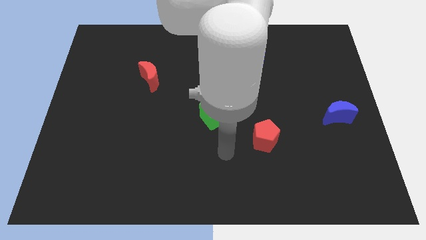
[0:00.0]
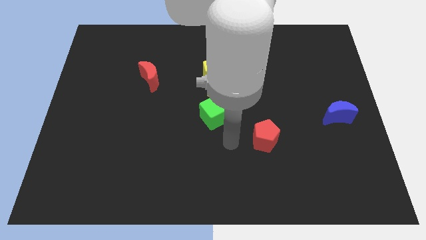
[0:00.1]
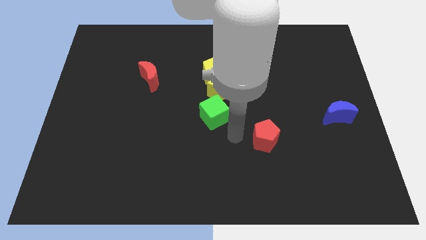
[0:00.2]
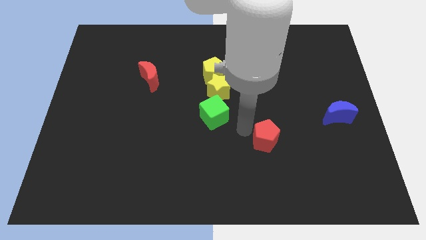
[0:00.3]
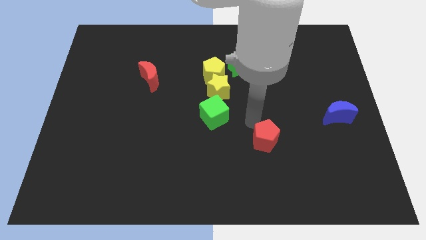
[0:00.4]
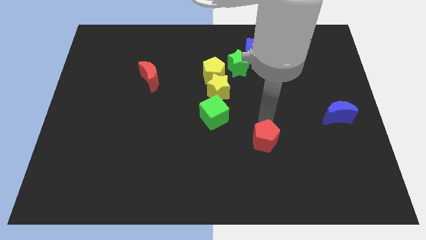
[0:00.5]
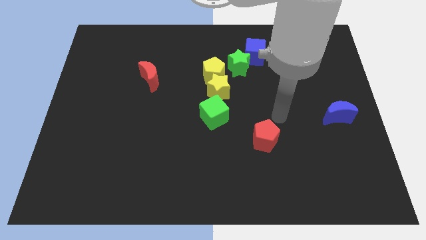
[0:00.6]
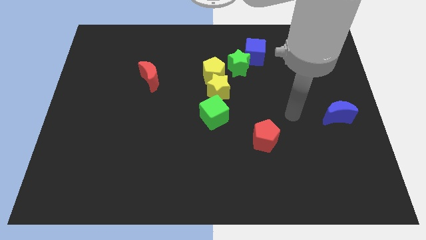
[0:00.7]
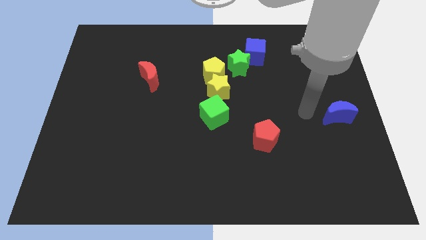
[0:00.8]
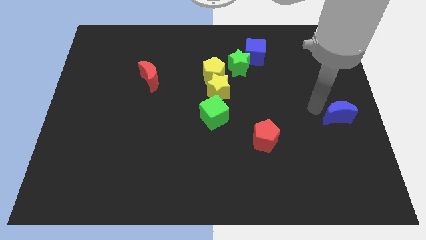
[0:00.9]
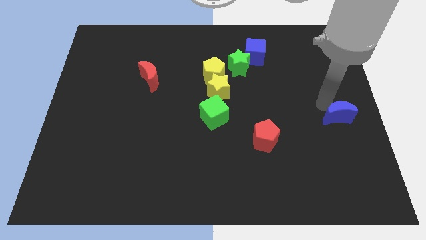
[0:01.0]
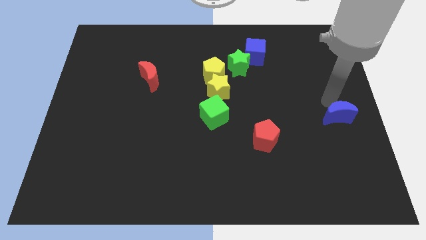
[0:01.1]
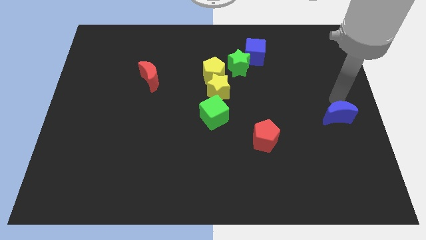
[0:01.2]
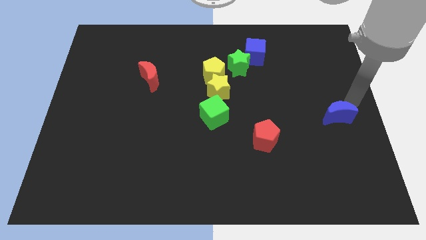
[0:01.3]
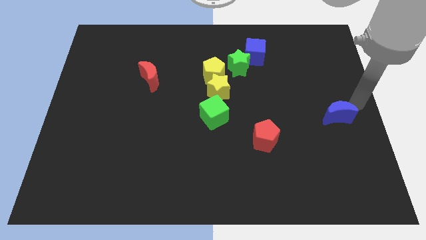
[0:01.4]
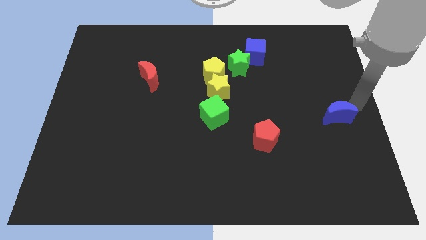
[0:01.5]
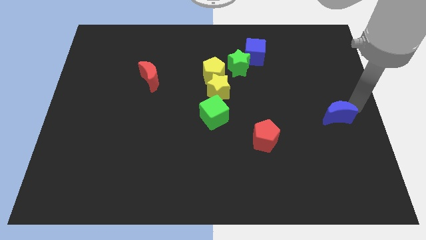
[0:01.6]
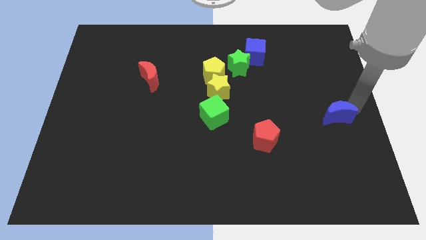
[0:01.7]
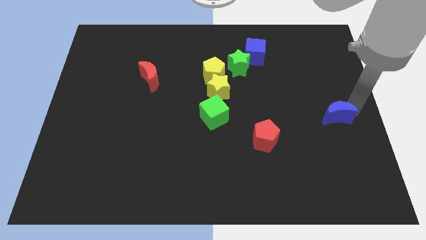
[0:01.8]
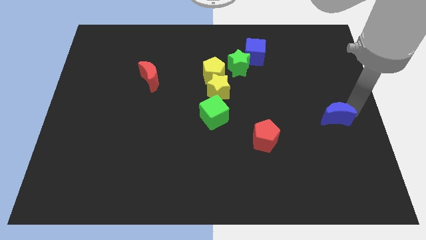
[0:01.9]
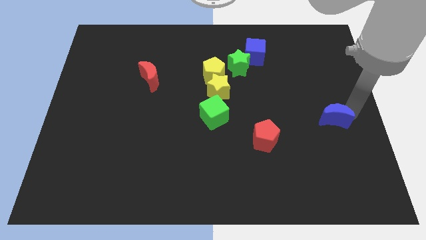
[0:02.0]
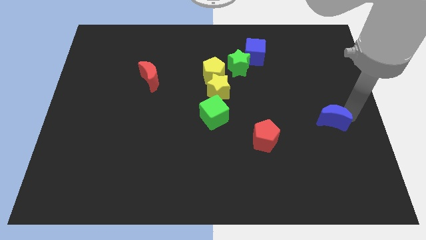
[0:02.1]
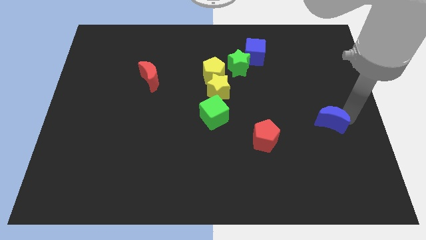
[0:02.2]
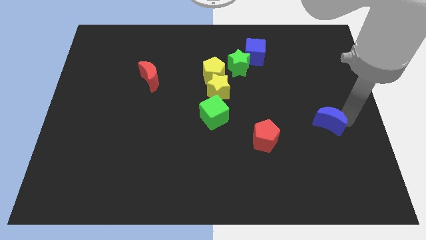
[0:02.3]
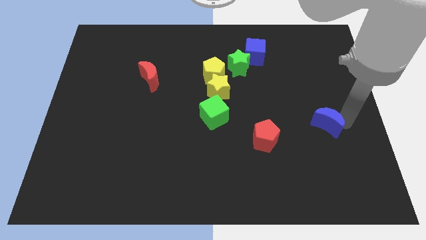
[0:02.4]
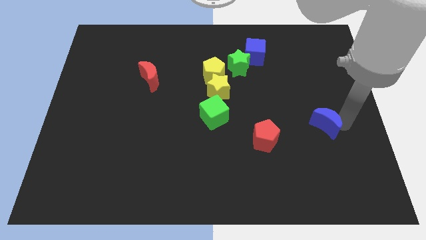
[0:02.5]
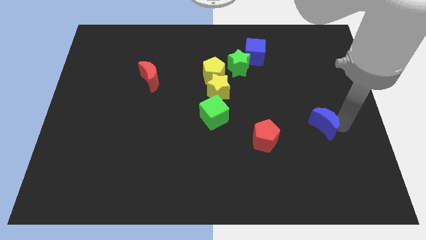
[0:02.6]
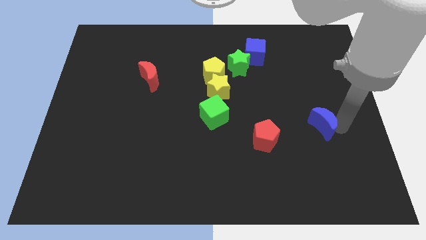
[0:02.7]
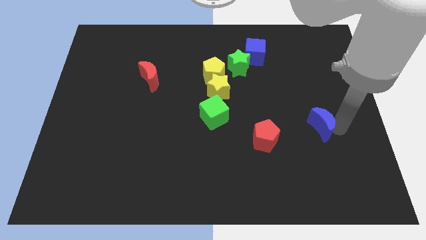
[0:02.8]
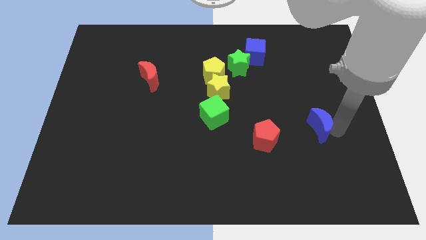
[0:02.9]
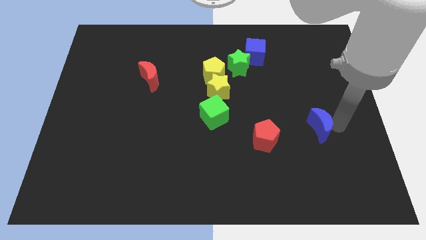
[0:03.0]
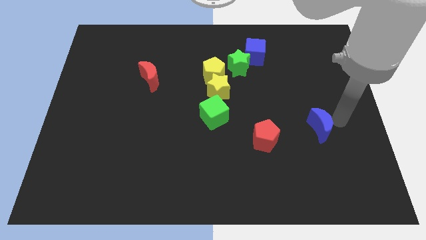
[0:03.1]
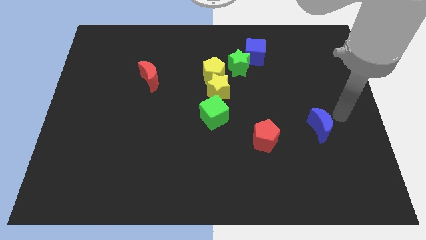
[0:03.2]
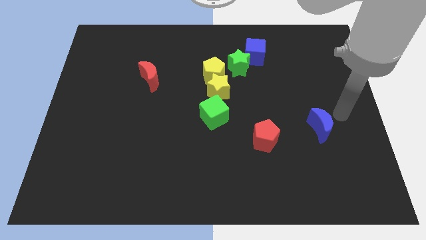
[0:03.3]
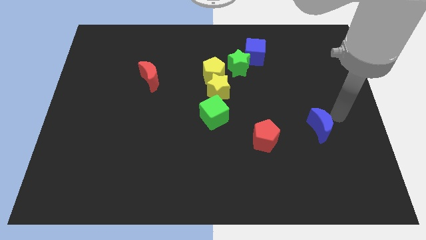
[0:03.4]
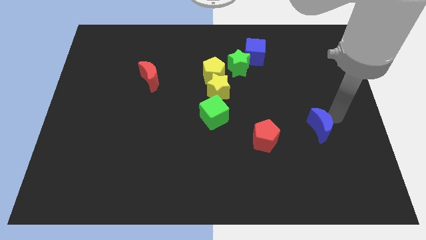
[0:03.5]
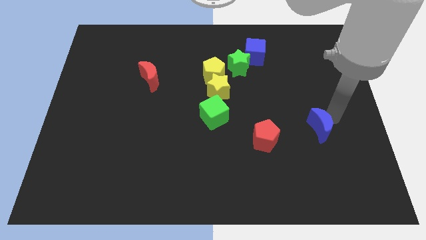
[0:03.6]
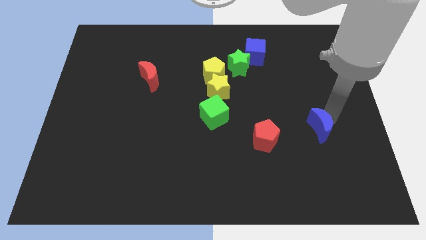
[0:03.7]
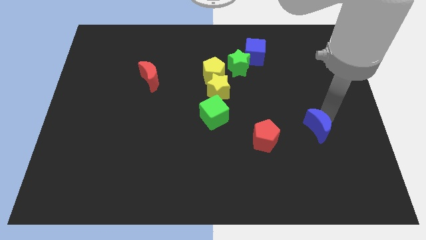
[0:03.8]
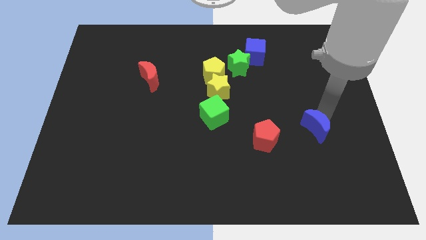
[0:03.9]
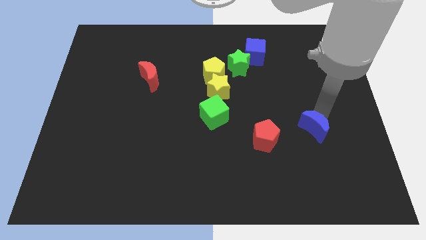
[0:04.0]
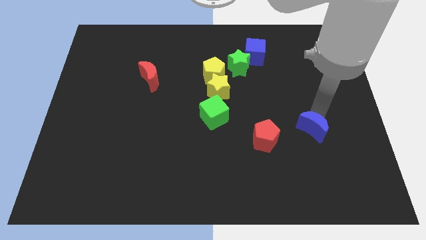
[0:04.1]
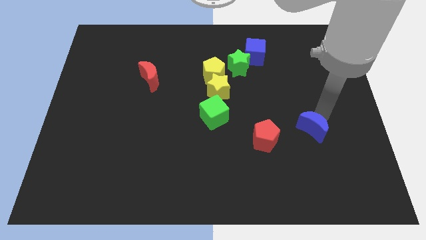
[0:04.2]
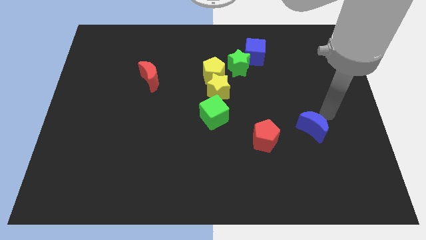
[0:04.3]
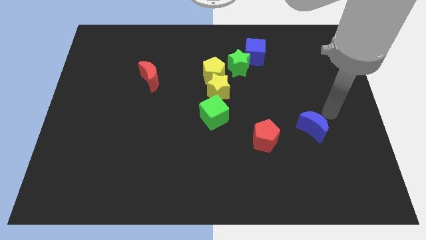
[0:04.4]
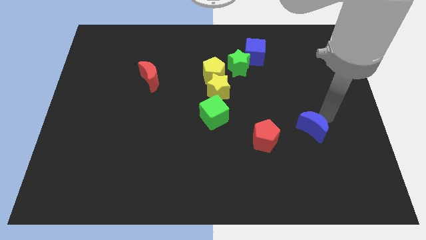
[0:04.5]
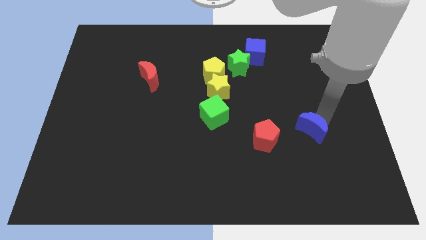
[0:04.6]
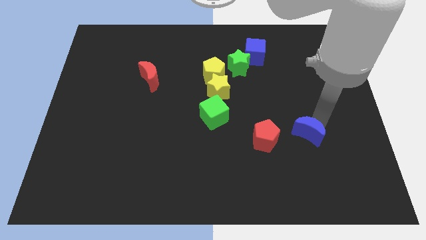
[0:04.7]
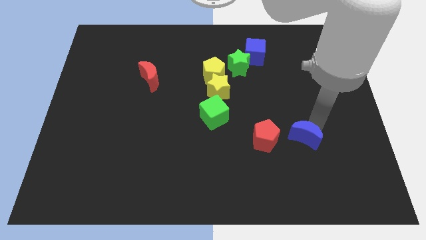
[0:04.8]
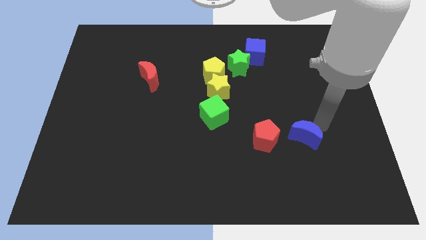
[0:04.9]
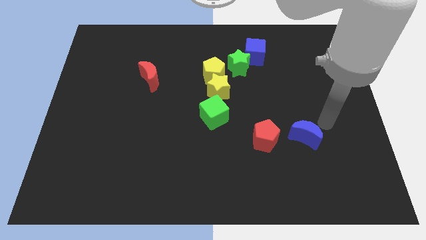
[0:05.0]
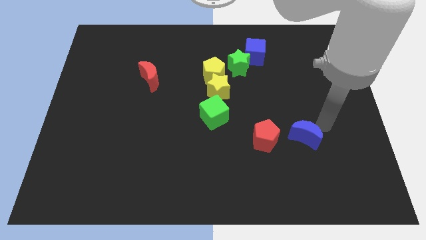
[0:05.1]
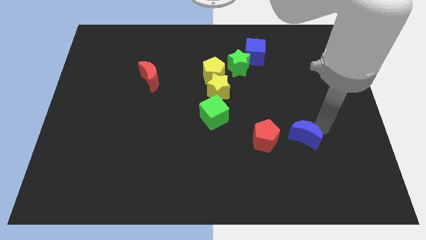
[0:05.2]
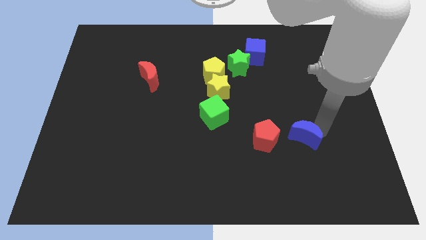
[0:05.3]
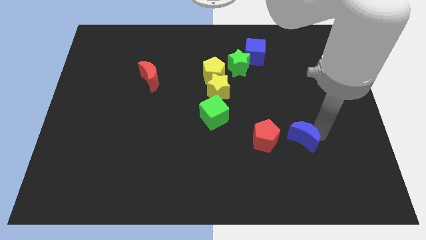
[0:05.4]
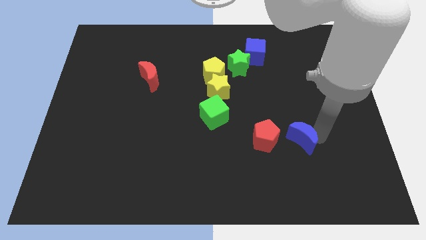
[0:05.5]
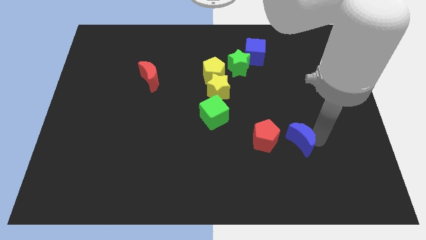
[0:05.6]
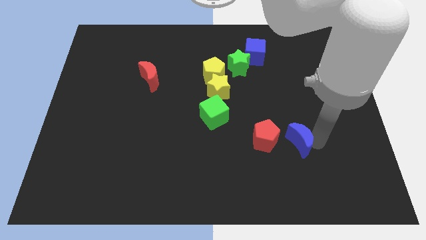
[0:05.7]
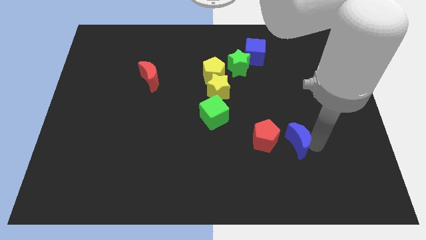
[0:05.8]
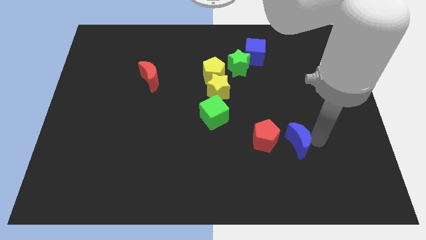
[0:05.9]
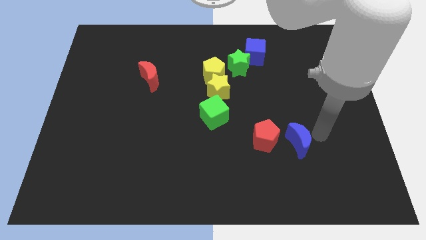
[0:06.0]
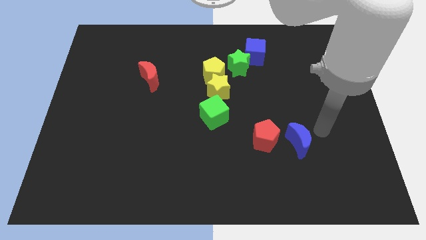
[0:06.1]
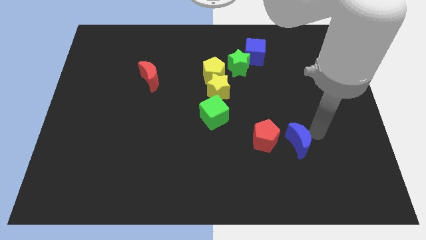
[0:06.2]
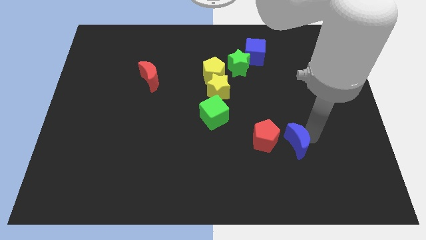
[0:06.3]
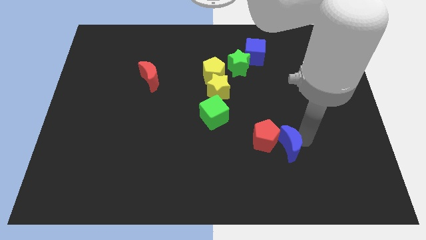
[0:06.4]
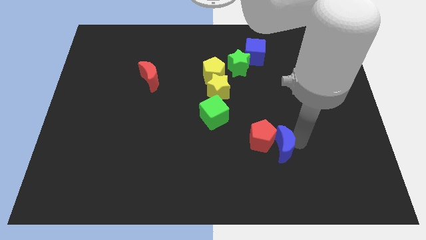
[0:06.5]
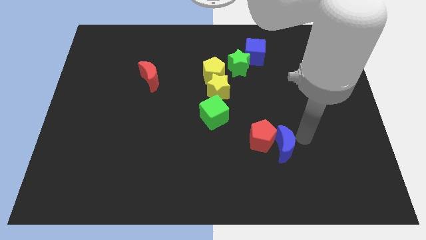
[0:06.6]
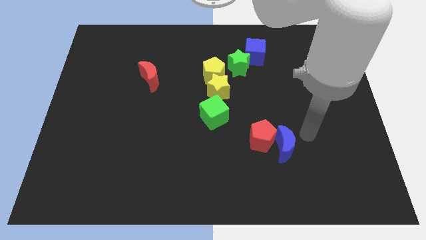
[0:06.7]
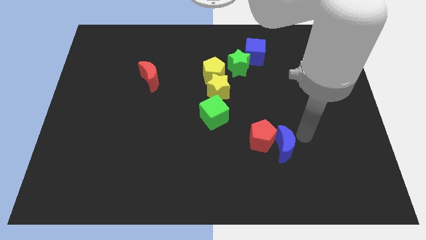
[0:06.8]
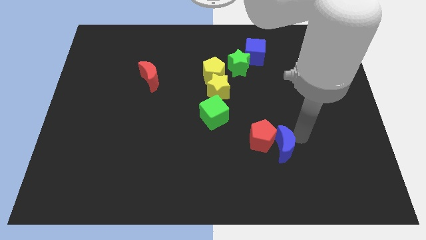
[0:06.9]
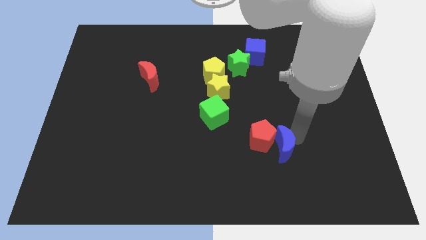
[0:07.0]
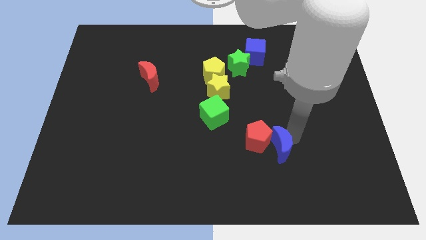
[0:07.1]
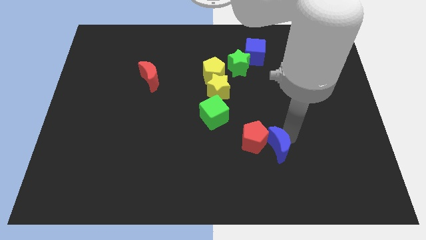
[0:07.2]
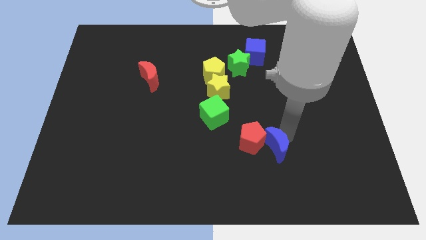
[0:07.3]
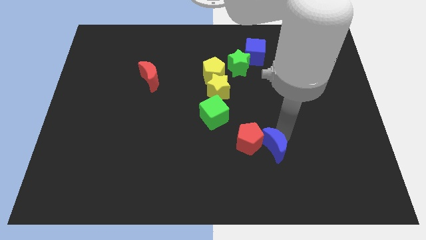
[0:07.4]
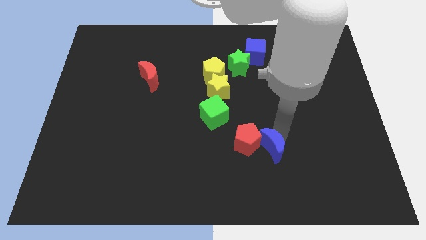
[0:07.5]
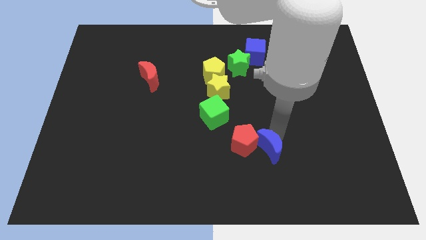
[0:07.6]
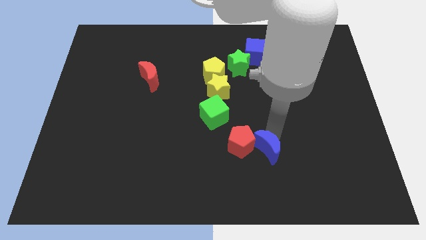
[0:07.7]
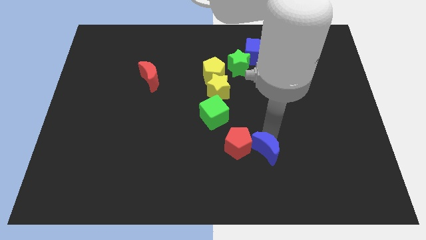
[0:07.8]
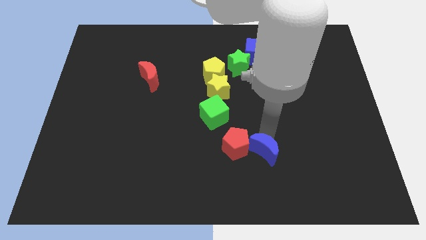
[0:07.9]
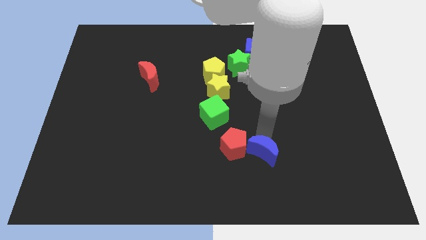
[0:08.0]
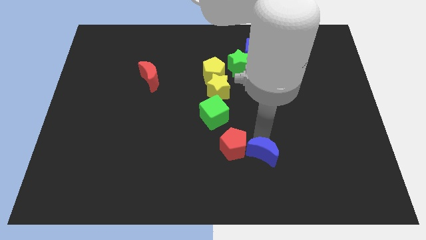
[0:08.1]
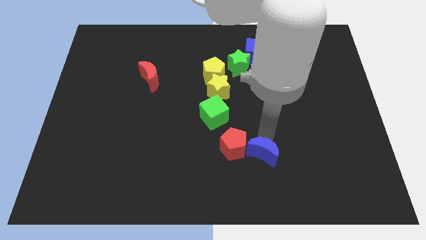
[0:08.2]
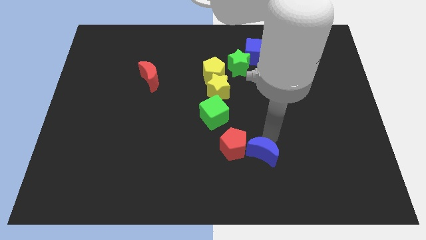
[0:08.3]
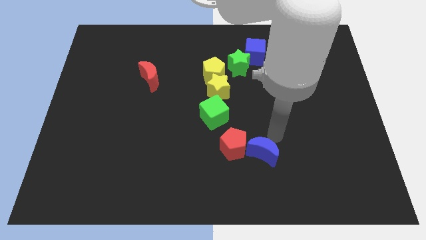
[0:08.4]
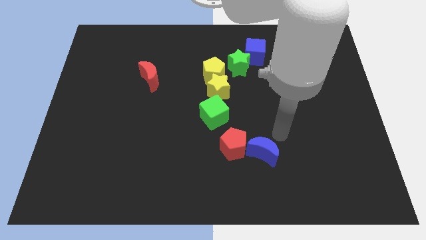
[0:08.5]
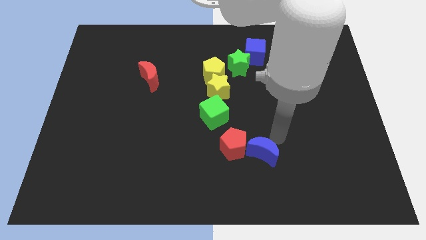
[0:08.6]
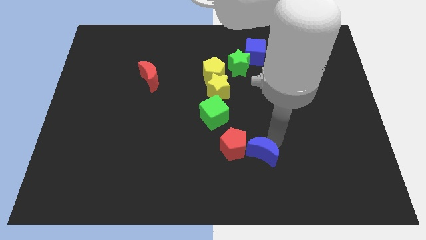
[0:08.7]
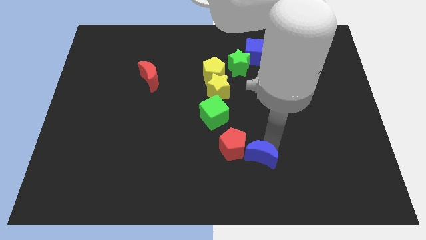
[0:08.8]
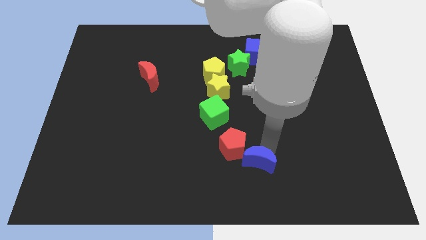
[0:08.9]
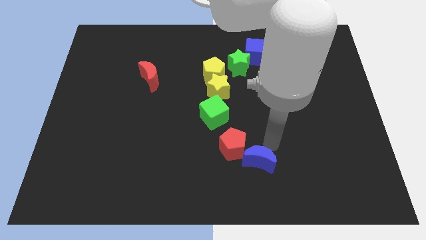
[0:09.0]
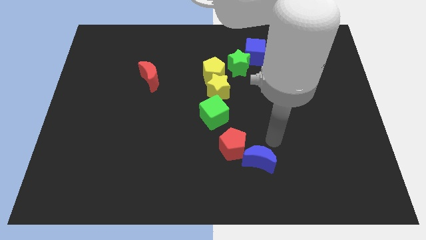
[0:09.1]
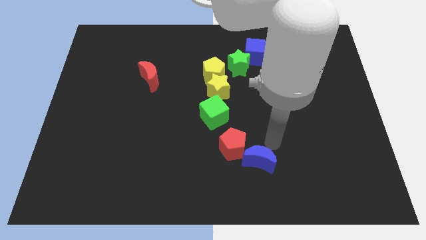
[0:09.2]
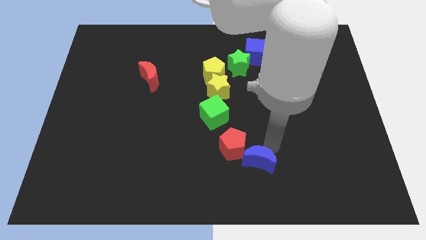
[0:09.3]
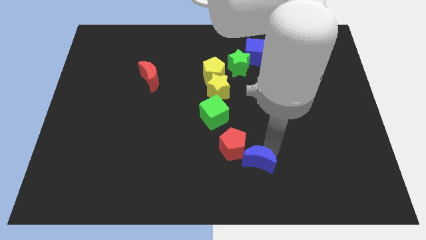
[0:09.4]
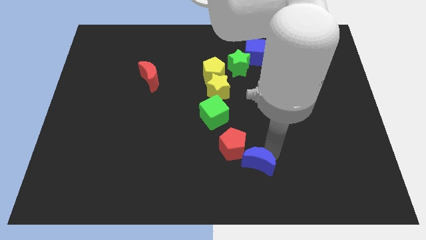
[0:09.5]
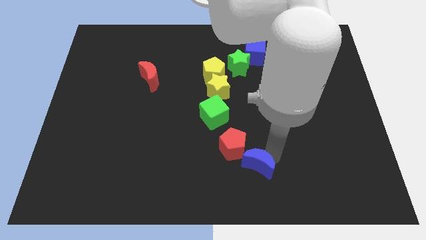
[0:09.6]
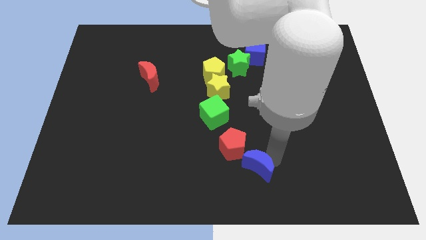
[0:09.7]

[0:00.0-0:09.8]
push the blue moon to the bottom
